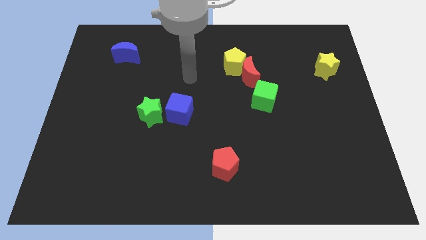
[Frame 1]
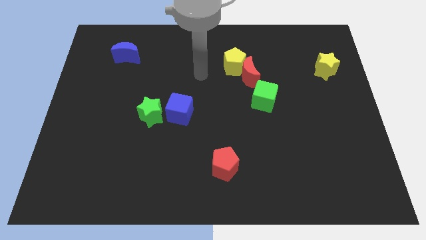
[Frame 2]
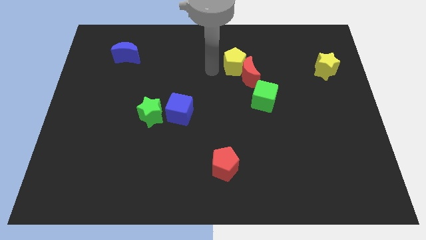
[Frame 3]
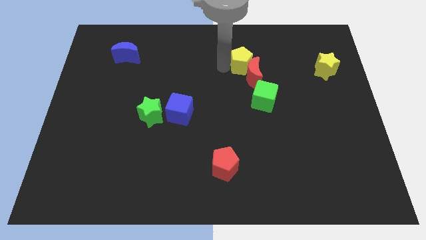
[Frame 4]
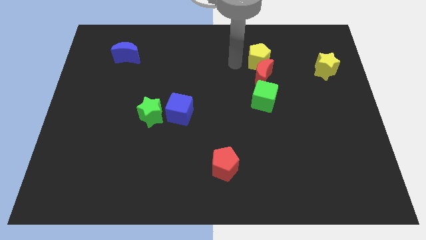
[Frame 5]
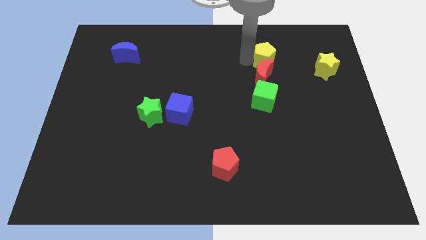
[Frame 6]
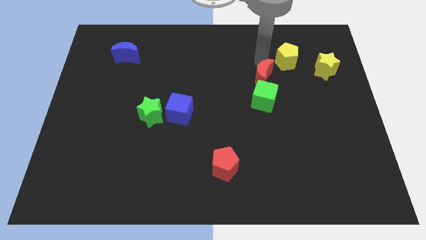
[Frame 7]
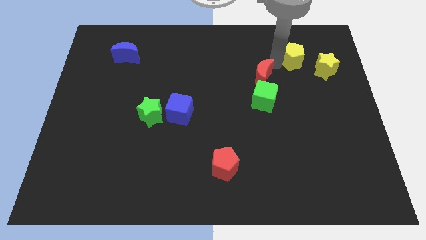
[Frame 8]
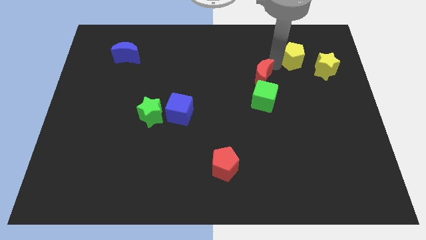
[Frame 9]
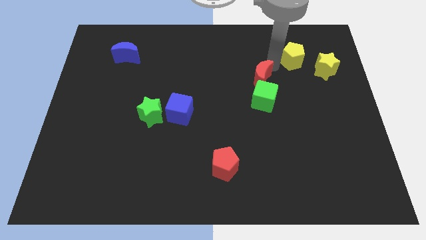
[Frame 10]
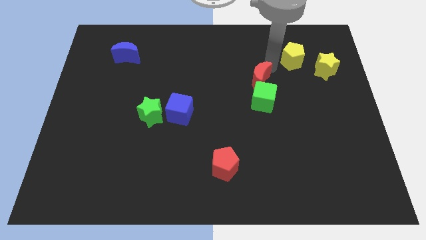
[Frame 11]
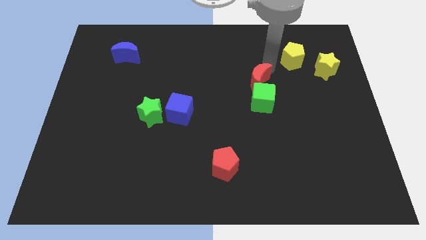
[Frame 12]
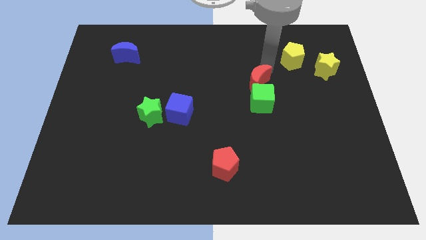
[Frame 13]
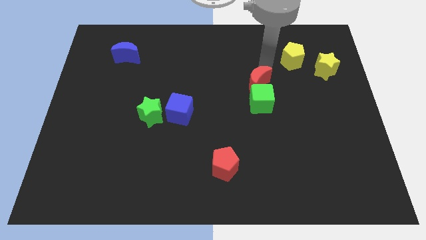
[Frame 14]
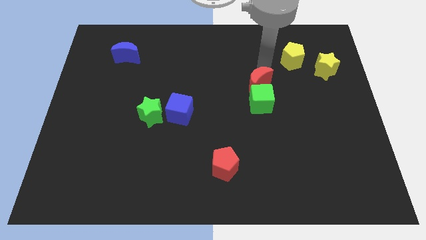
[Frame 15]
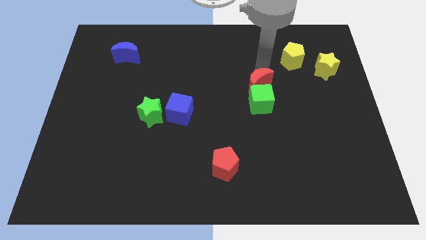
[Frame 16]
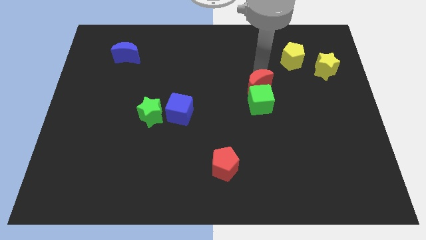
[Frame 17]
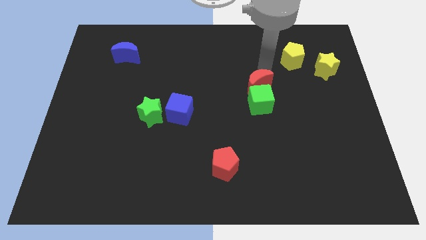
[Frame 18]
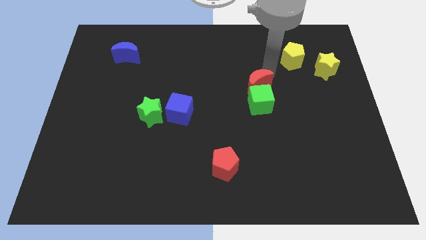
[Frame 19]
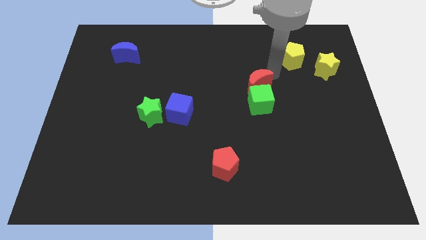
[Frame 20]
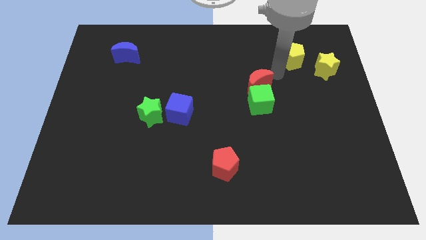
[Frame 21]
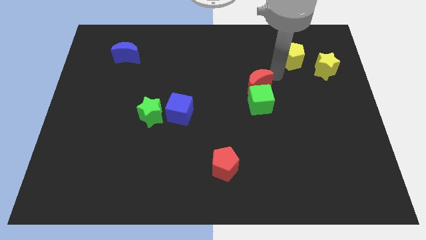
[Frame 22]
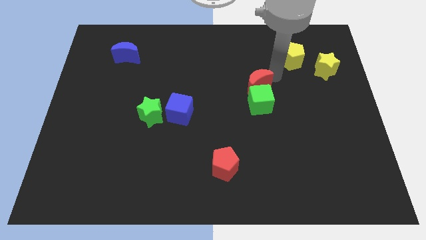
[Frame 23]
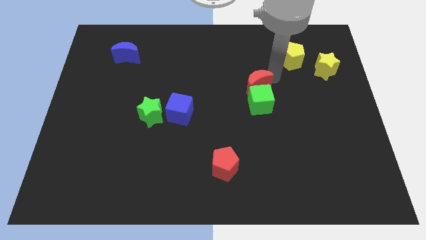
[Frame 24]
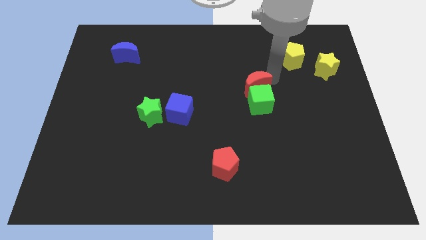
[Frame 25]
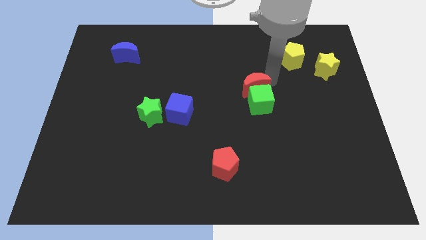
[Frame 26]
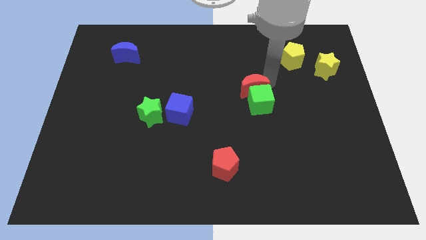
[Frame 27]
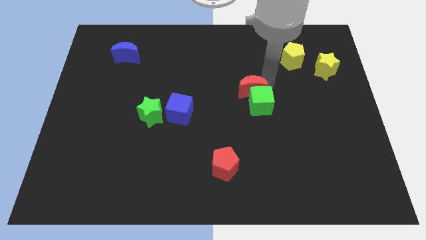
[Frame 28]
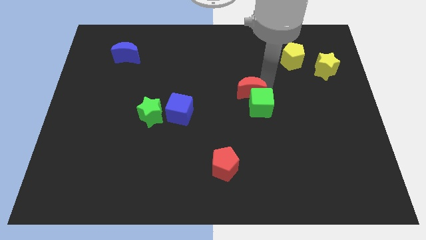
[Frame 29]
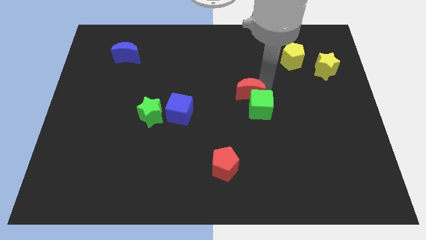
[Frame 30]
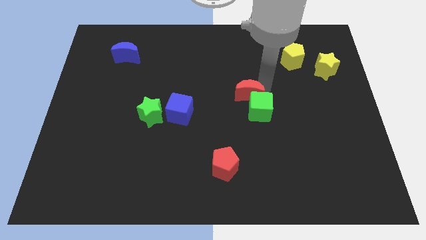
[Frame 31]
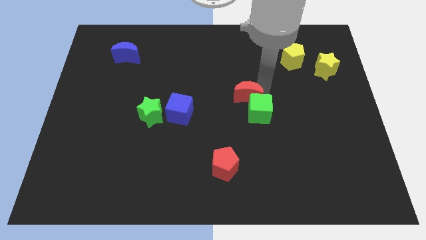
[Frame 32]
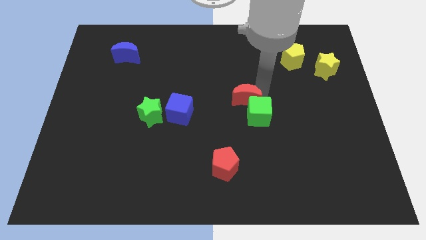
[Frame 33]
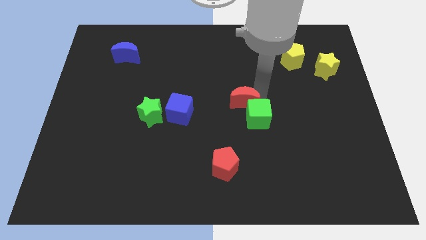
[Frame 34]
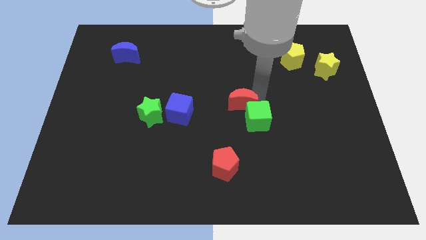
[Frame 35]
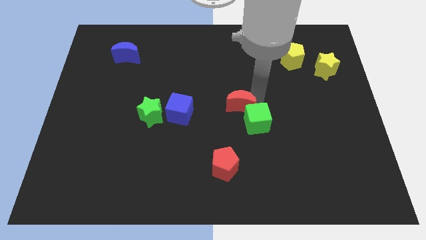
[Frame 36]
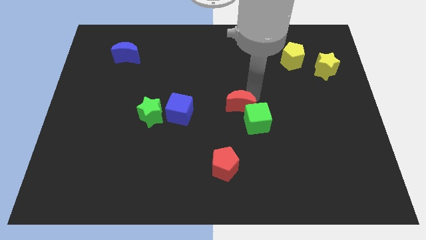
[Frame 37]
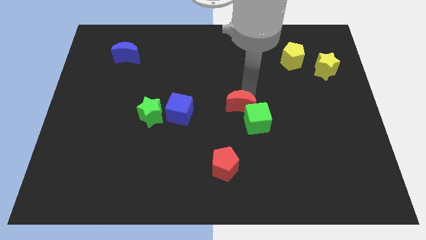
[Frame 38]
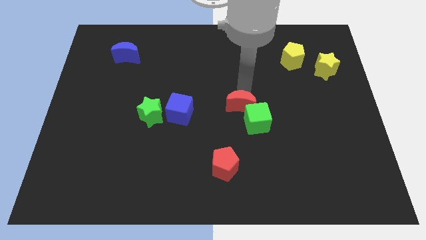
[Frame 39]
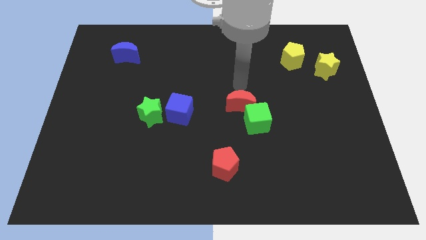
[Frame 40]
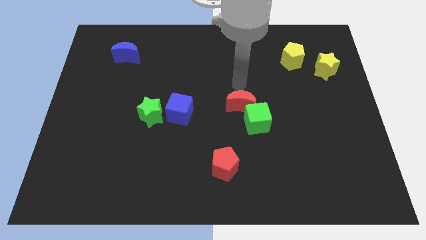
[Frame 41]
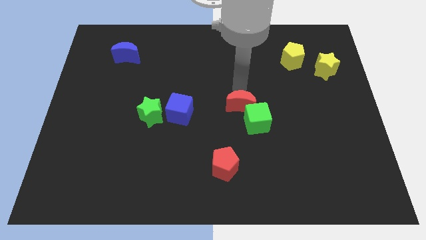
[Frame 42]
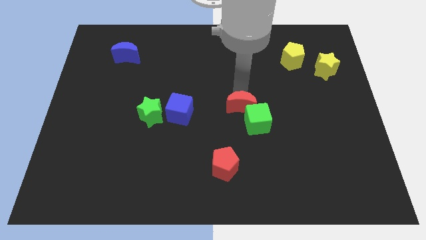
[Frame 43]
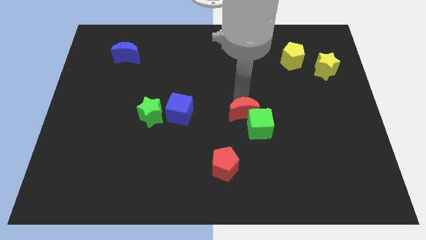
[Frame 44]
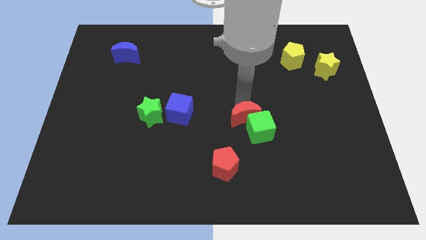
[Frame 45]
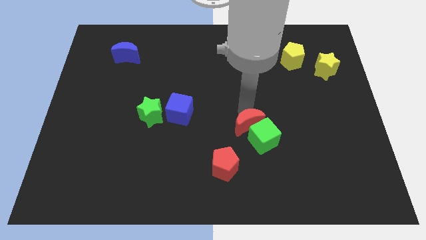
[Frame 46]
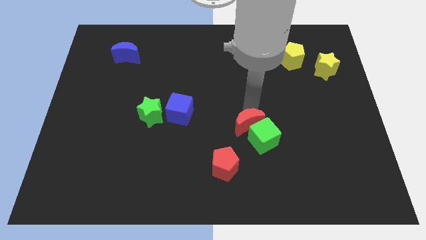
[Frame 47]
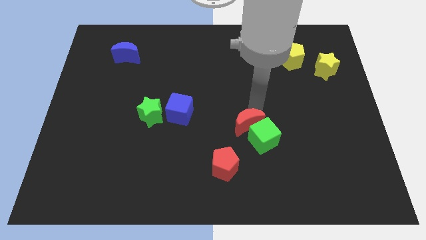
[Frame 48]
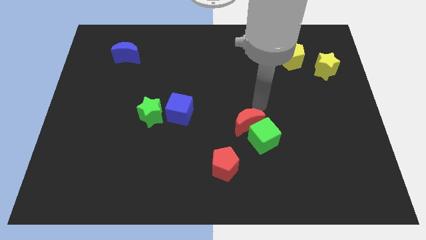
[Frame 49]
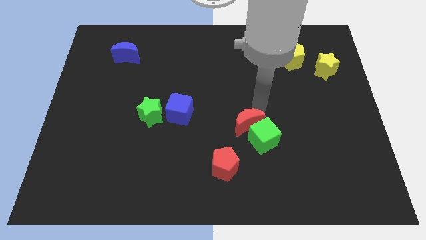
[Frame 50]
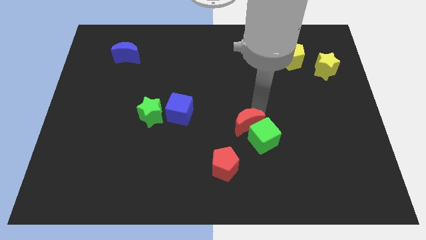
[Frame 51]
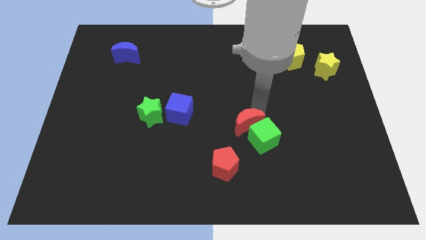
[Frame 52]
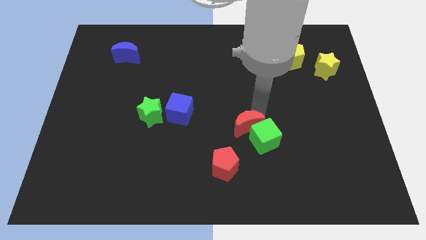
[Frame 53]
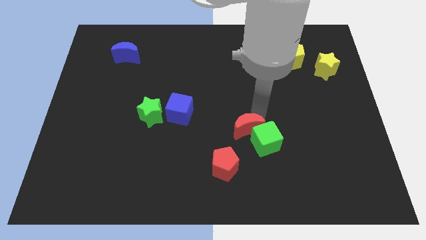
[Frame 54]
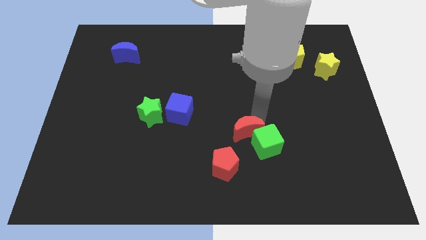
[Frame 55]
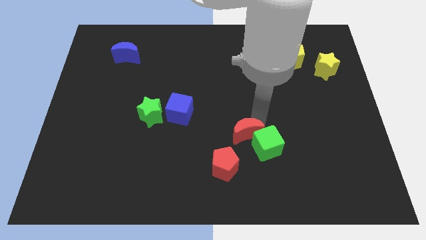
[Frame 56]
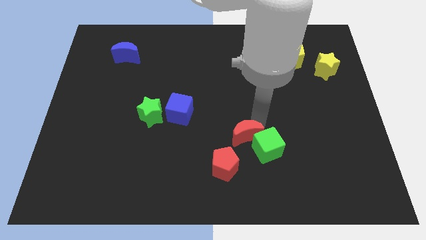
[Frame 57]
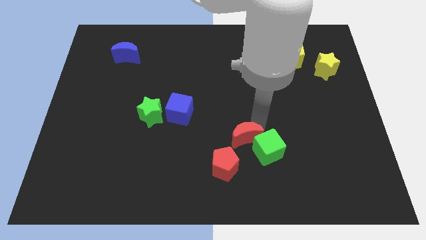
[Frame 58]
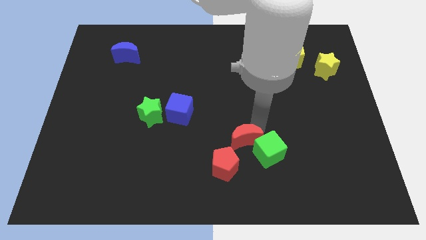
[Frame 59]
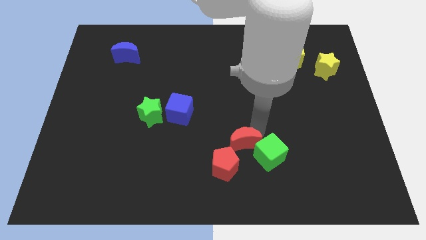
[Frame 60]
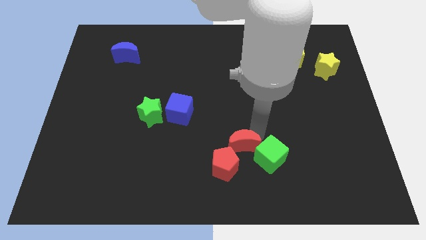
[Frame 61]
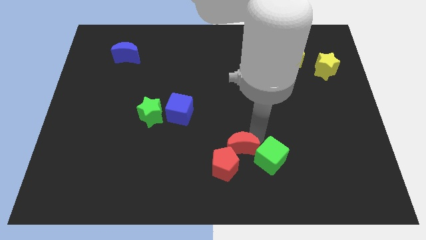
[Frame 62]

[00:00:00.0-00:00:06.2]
put the red moon towards the red pentagon

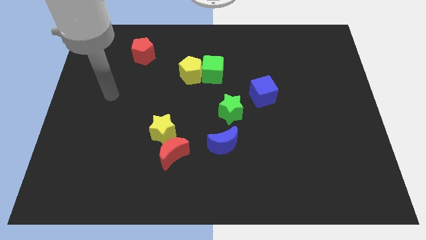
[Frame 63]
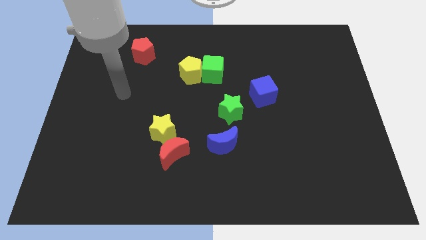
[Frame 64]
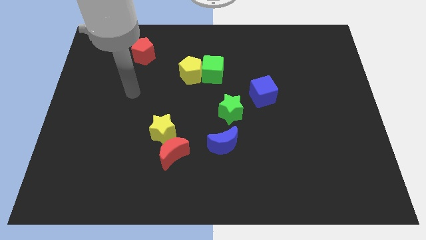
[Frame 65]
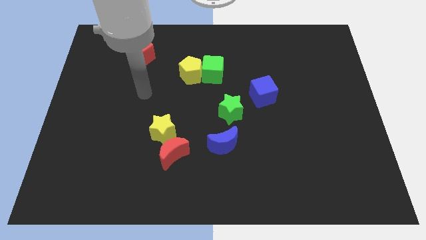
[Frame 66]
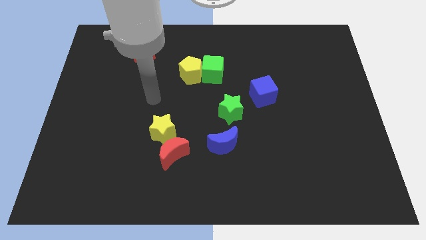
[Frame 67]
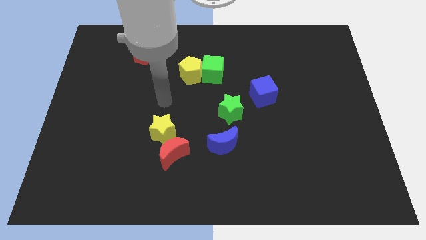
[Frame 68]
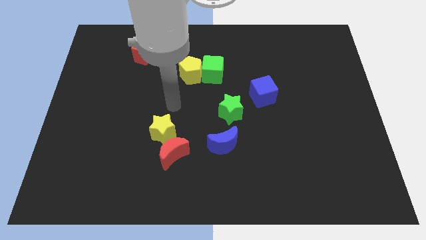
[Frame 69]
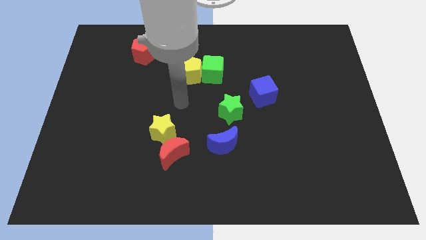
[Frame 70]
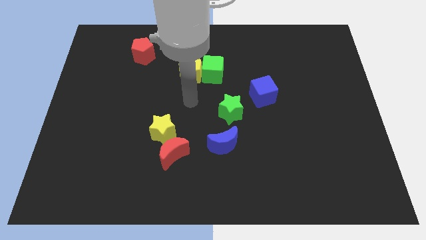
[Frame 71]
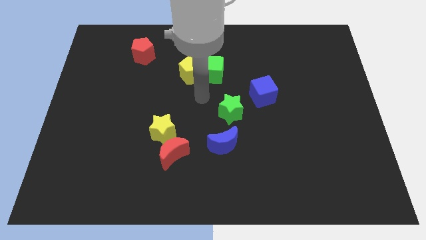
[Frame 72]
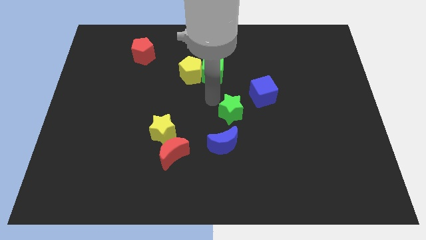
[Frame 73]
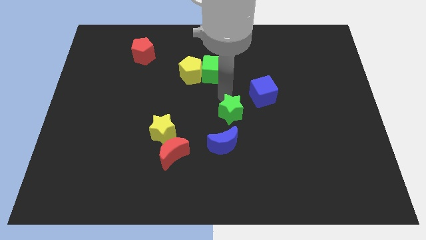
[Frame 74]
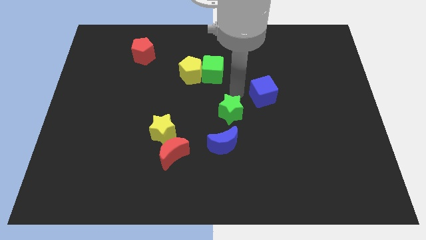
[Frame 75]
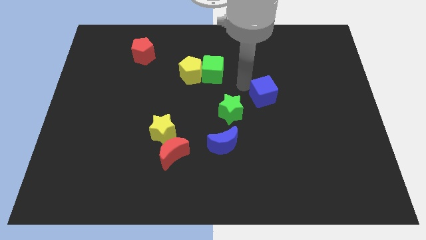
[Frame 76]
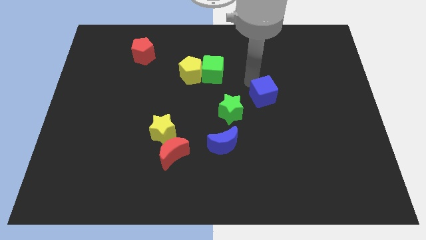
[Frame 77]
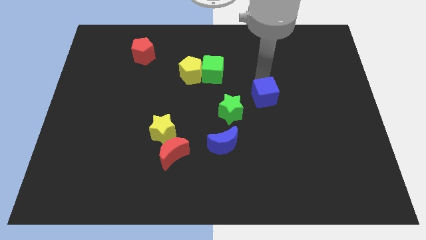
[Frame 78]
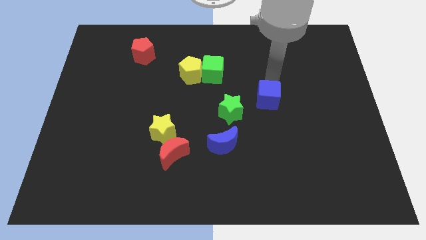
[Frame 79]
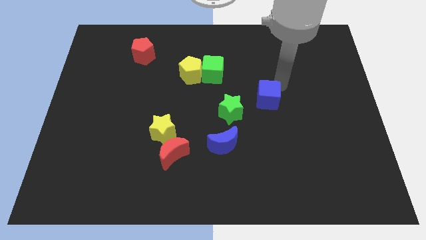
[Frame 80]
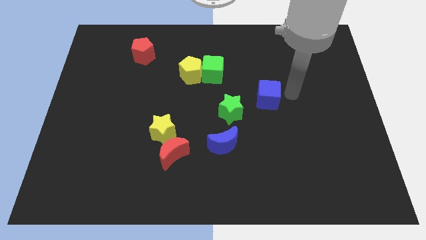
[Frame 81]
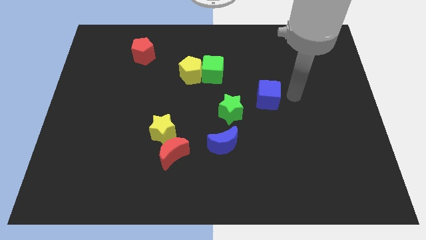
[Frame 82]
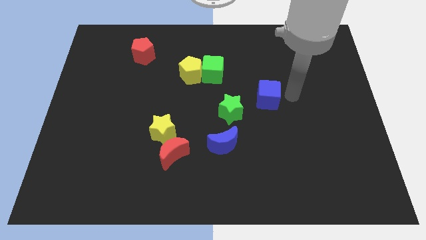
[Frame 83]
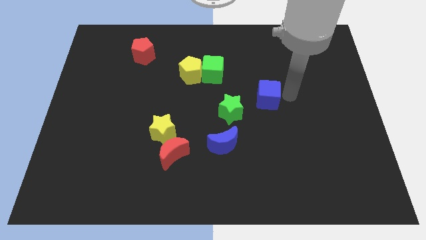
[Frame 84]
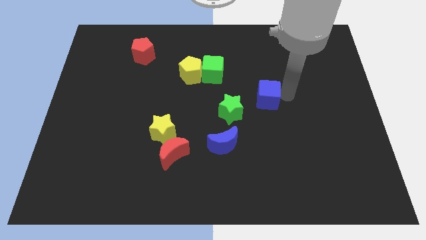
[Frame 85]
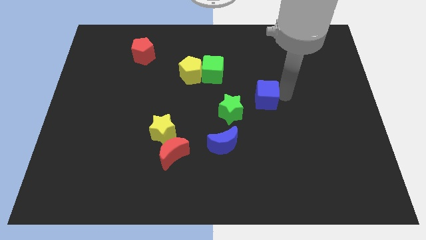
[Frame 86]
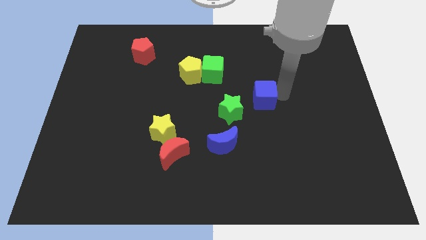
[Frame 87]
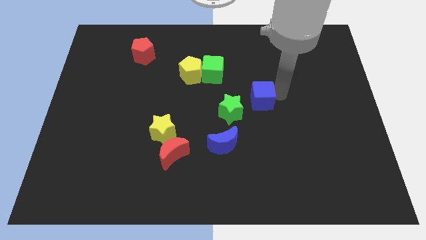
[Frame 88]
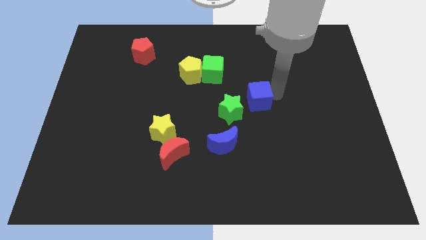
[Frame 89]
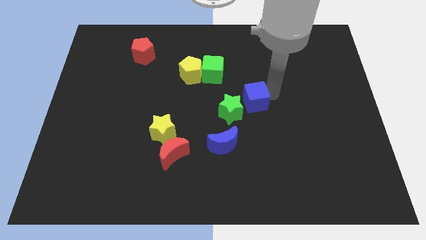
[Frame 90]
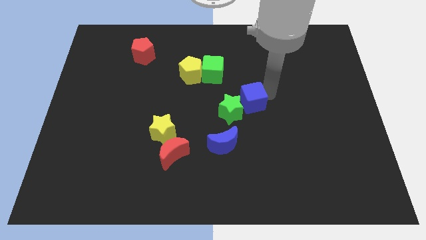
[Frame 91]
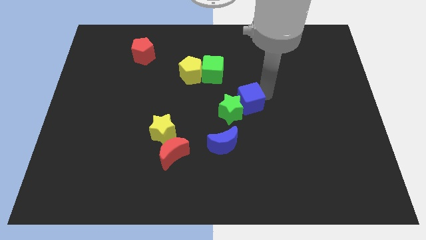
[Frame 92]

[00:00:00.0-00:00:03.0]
slide the blue cube to the green star
